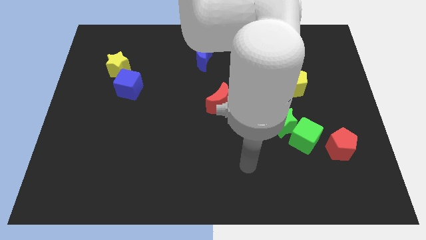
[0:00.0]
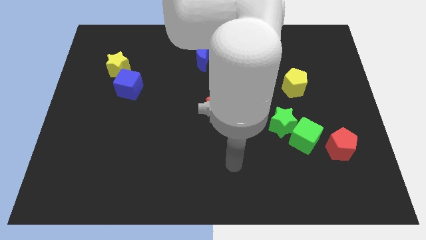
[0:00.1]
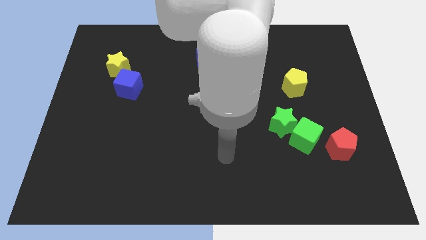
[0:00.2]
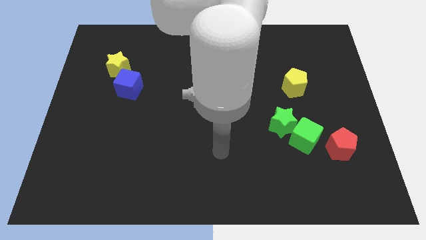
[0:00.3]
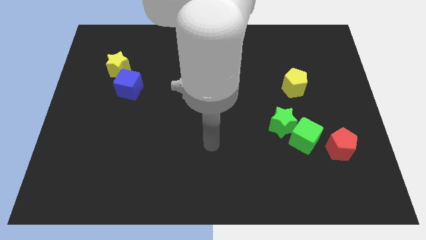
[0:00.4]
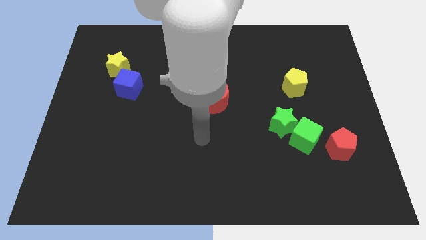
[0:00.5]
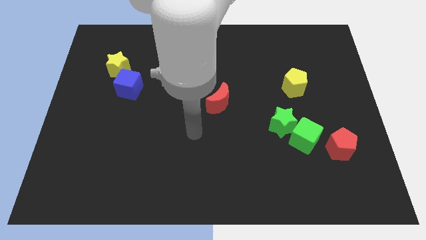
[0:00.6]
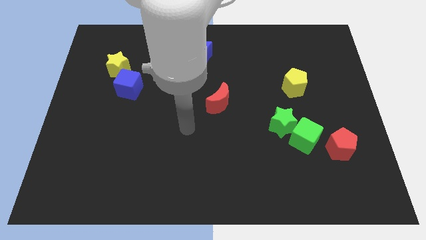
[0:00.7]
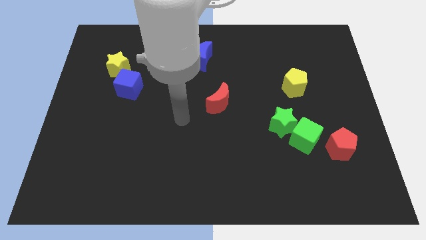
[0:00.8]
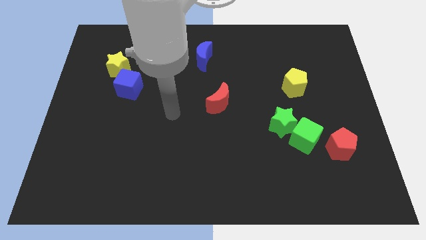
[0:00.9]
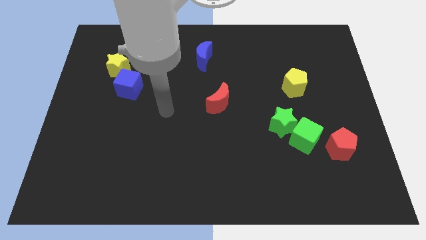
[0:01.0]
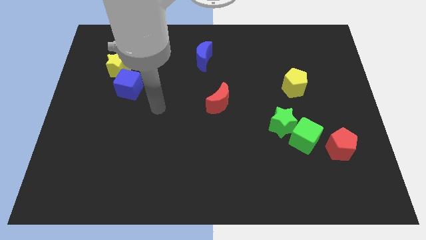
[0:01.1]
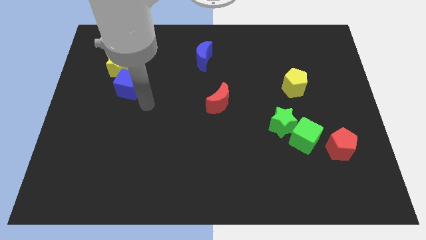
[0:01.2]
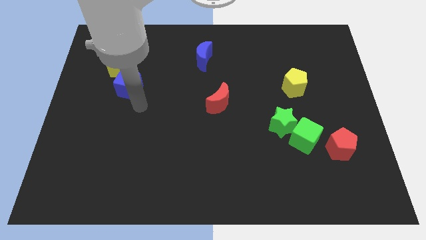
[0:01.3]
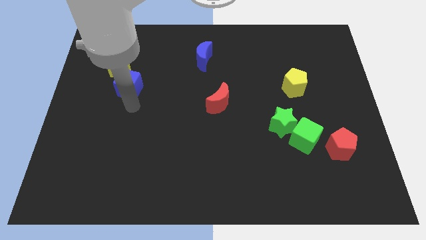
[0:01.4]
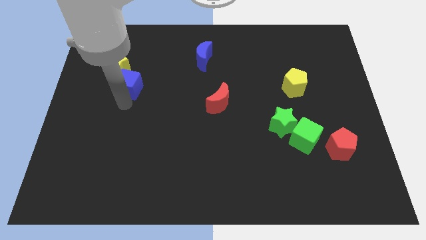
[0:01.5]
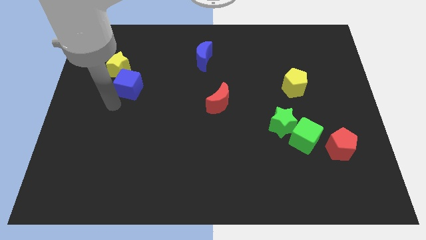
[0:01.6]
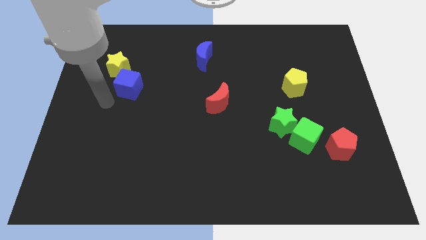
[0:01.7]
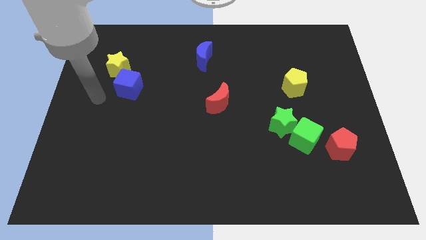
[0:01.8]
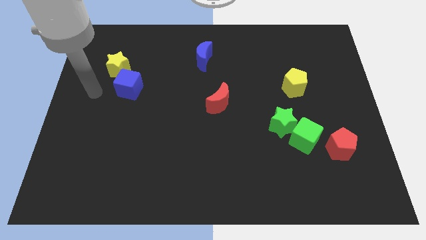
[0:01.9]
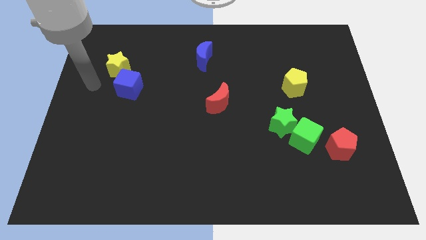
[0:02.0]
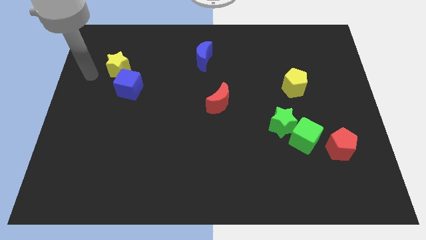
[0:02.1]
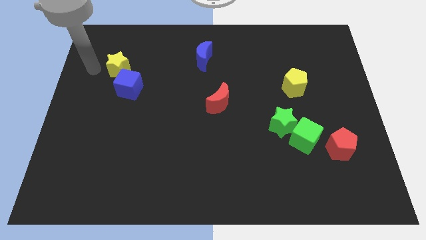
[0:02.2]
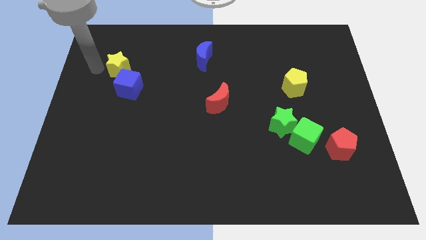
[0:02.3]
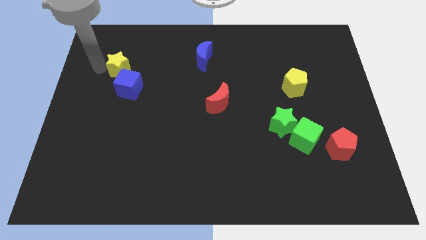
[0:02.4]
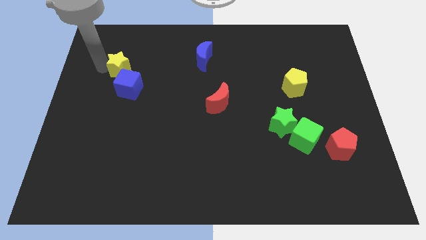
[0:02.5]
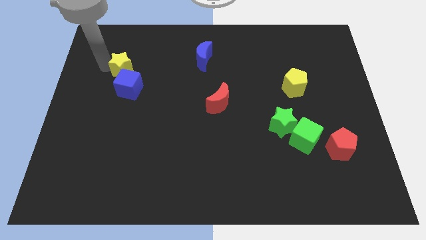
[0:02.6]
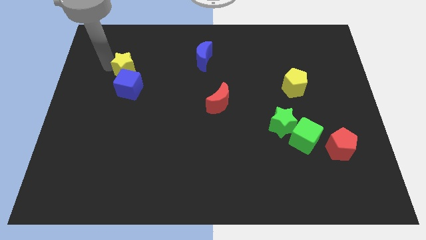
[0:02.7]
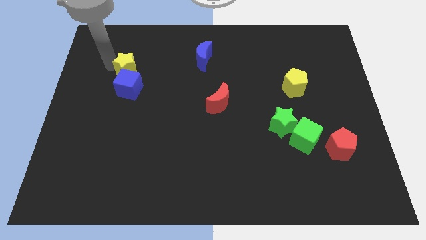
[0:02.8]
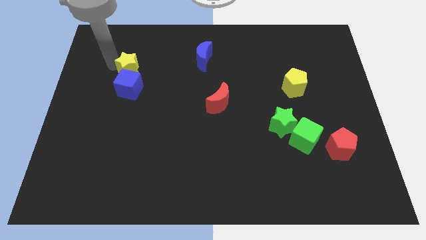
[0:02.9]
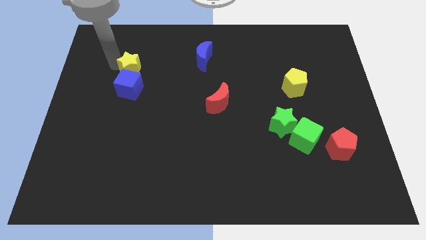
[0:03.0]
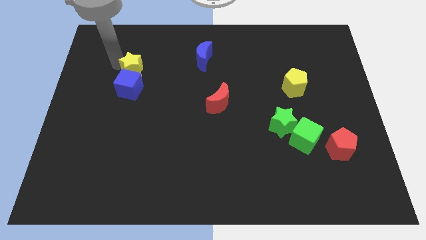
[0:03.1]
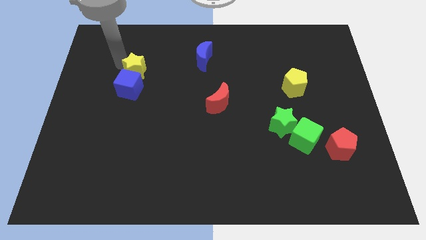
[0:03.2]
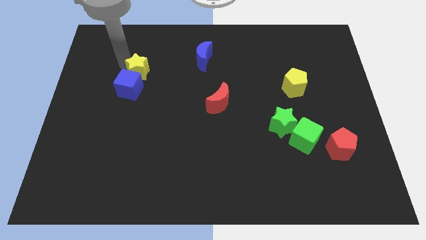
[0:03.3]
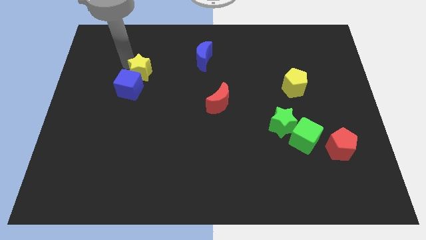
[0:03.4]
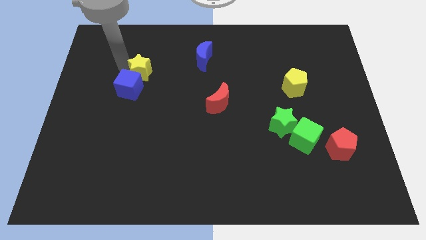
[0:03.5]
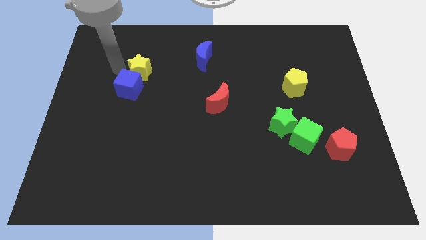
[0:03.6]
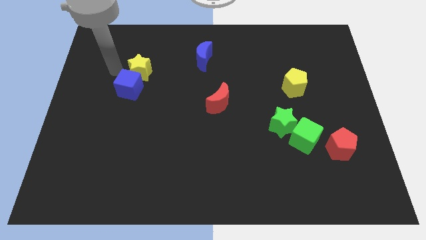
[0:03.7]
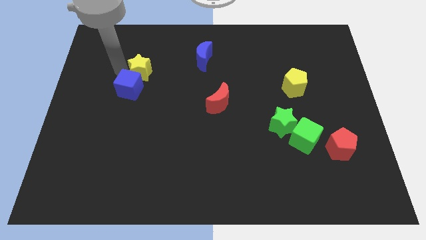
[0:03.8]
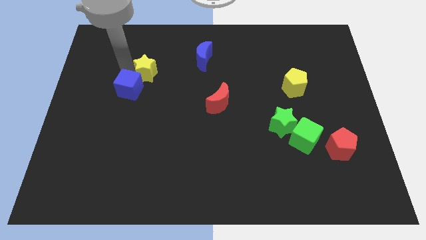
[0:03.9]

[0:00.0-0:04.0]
slightly push the yellow star to the right

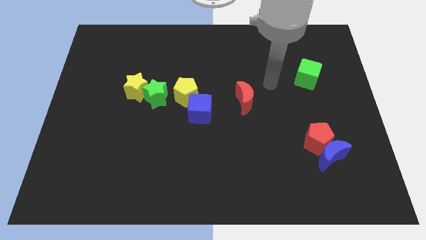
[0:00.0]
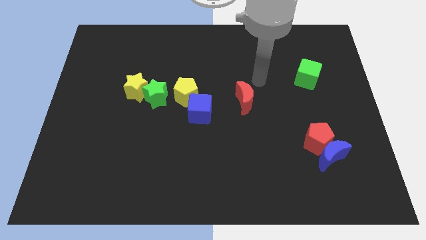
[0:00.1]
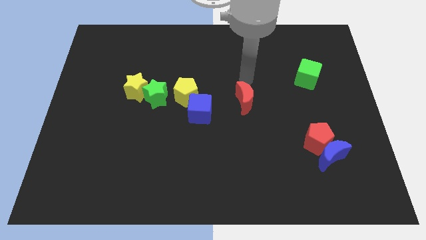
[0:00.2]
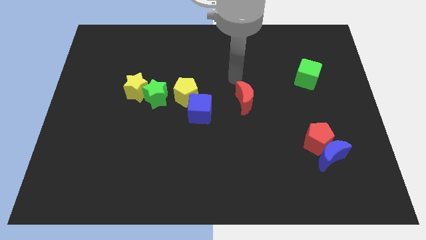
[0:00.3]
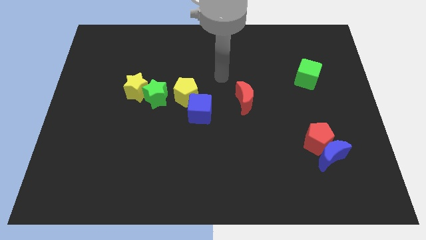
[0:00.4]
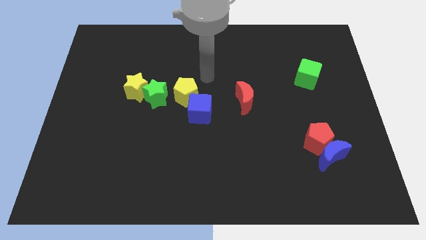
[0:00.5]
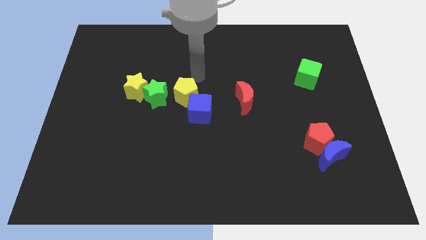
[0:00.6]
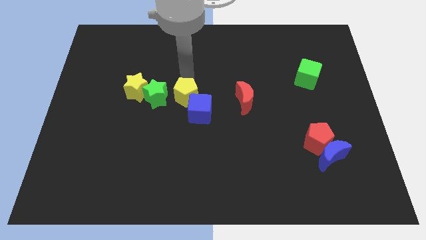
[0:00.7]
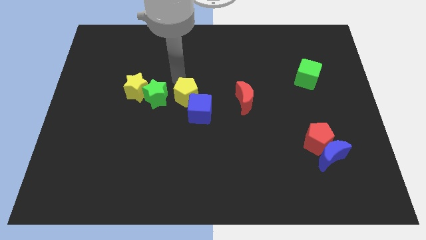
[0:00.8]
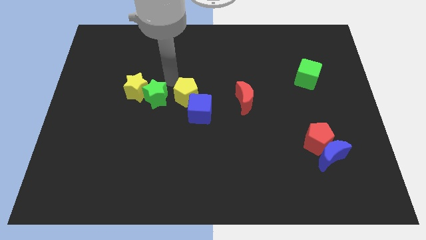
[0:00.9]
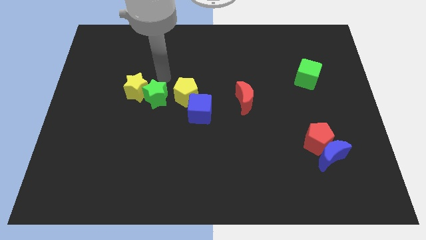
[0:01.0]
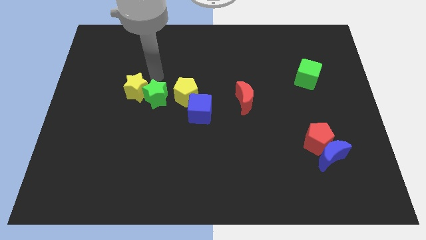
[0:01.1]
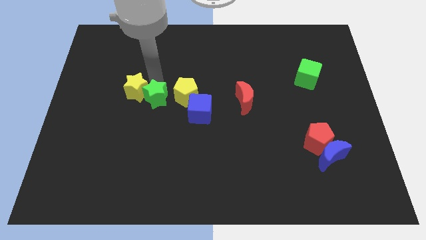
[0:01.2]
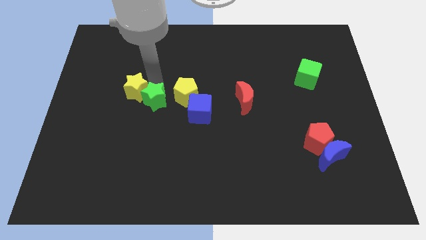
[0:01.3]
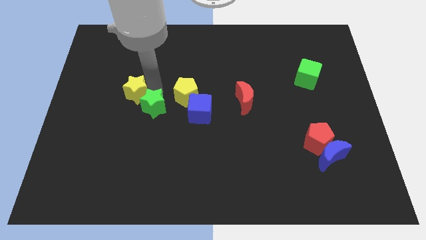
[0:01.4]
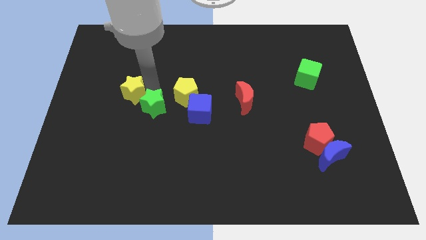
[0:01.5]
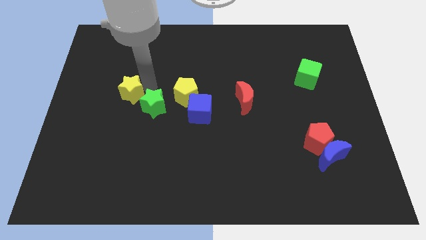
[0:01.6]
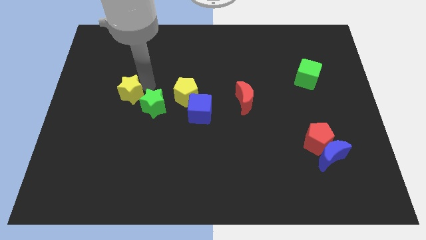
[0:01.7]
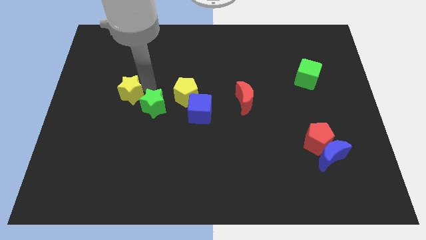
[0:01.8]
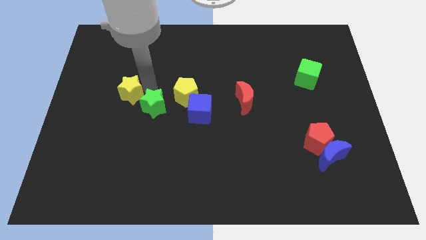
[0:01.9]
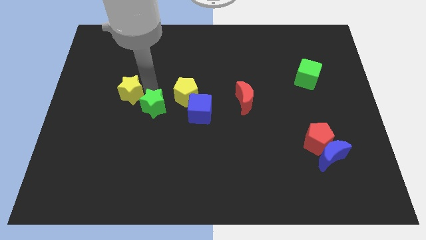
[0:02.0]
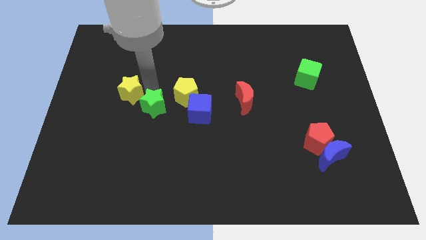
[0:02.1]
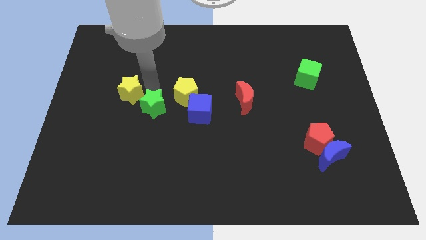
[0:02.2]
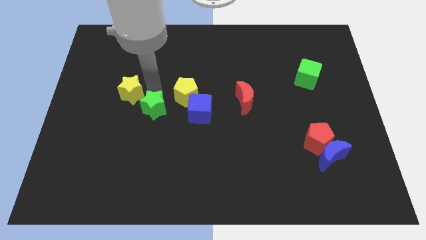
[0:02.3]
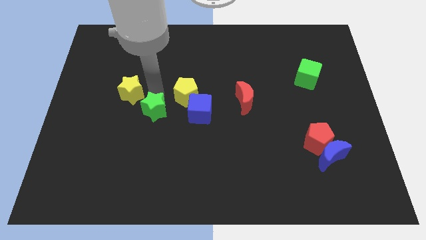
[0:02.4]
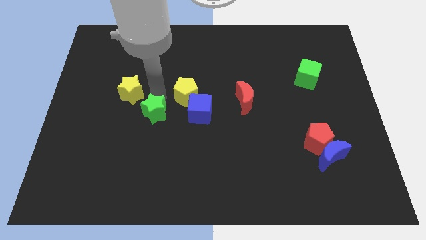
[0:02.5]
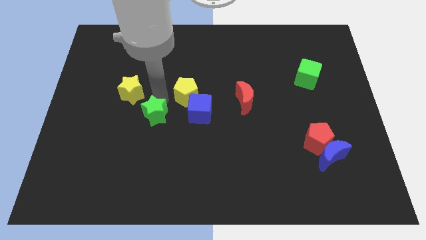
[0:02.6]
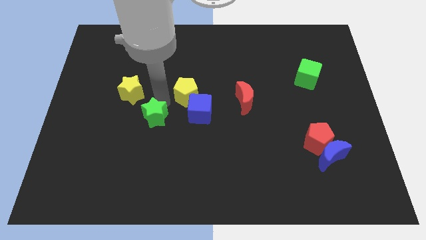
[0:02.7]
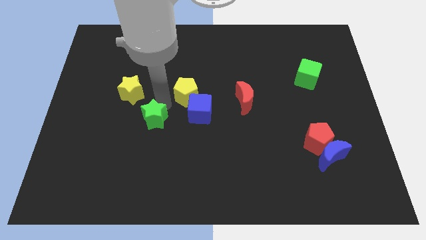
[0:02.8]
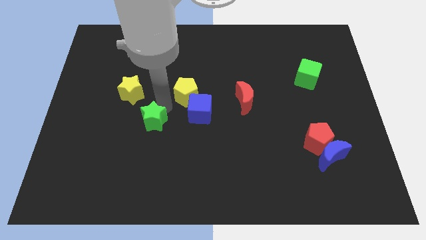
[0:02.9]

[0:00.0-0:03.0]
slightly move the green star down

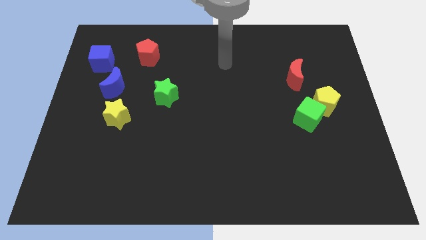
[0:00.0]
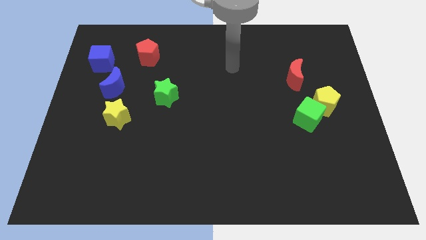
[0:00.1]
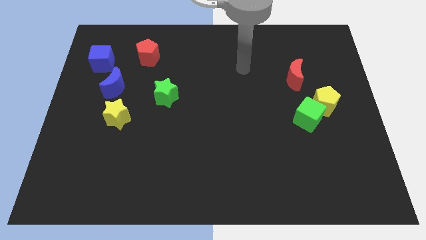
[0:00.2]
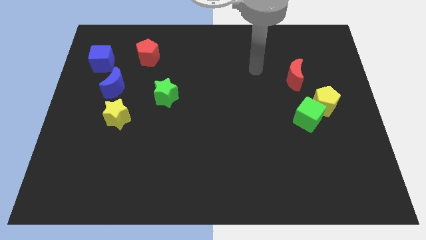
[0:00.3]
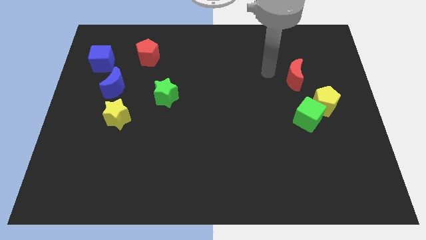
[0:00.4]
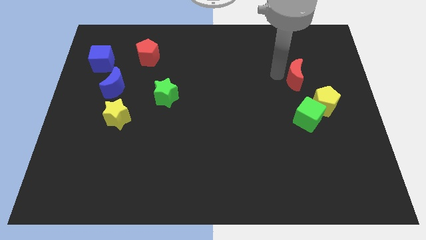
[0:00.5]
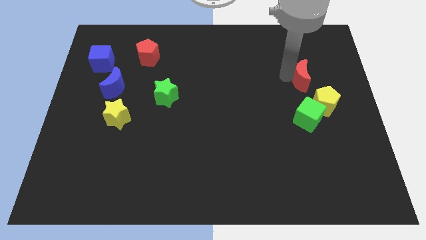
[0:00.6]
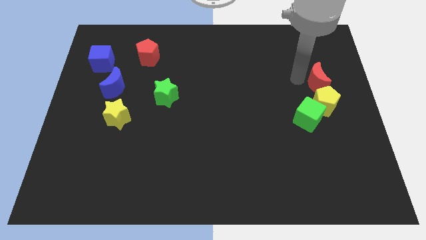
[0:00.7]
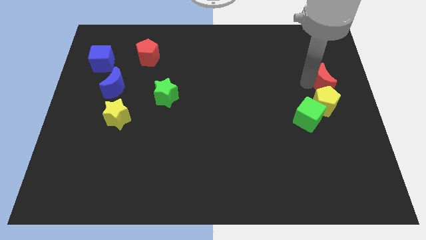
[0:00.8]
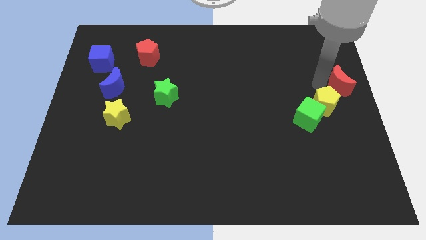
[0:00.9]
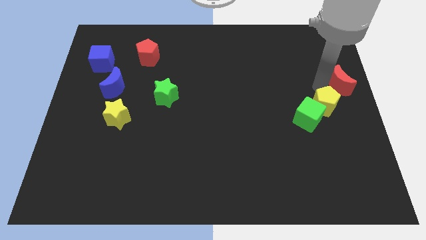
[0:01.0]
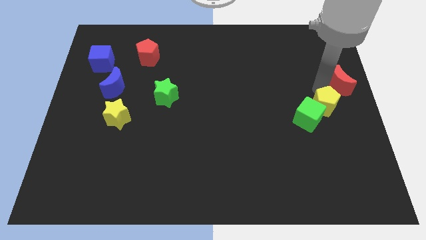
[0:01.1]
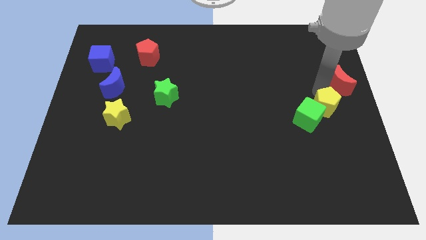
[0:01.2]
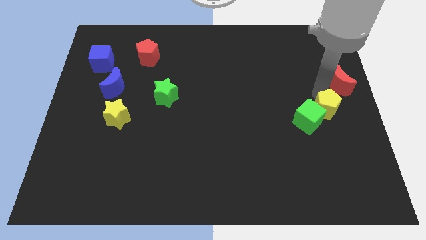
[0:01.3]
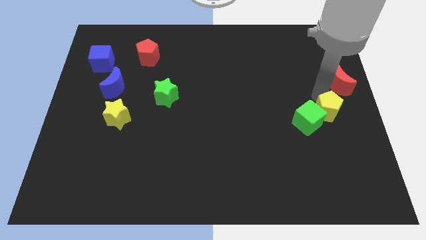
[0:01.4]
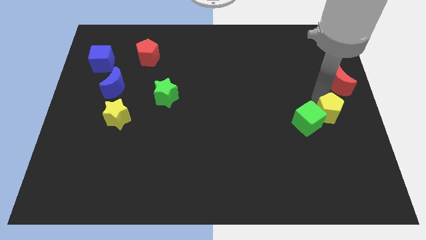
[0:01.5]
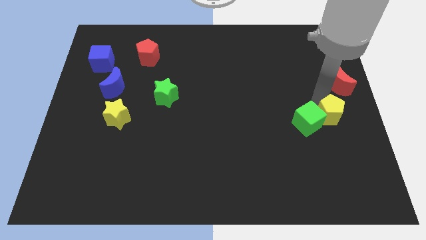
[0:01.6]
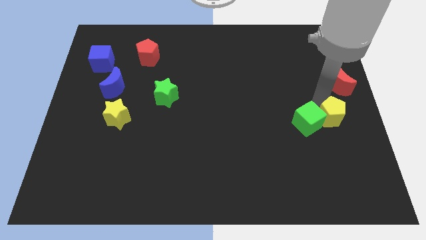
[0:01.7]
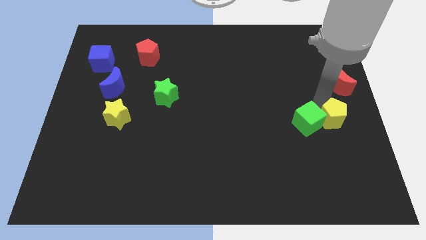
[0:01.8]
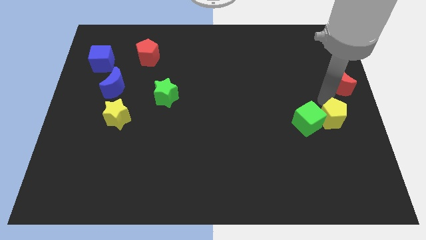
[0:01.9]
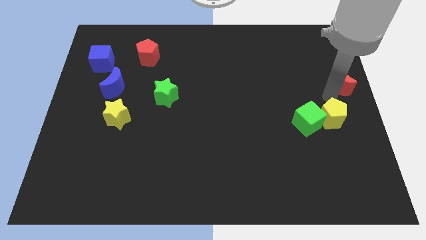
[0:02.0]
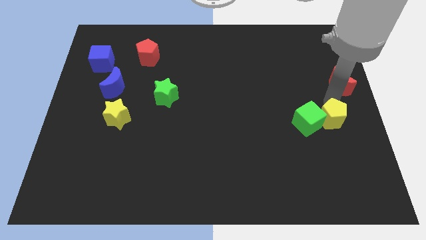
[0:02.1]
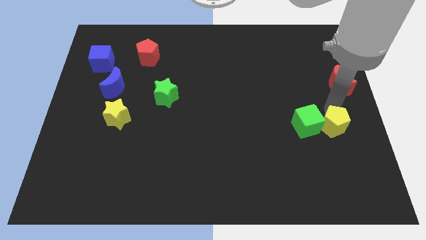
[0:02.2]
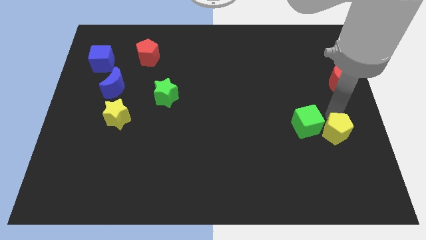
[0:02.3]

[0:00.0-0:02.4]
slide the yellow pentagon a little bit down
